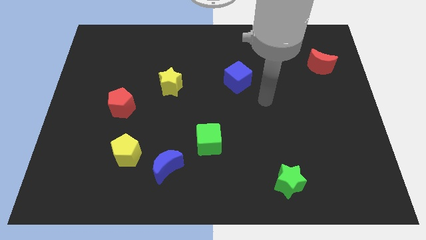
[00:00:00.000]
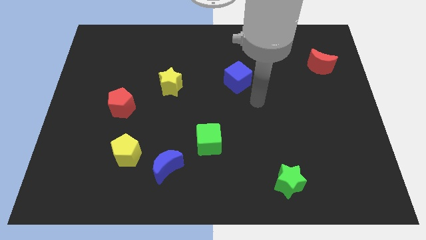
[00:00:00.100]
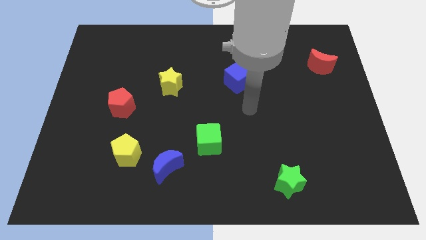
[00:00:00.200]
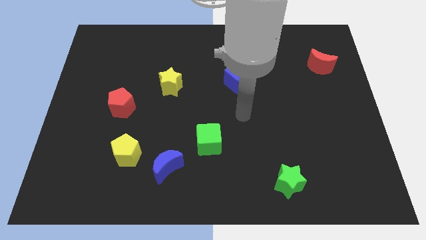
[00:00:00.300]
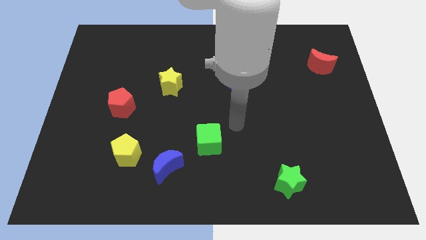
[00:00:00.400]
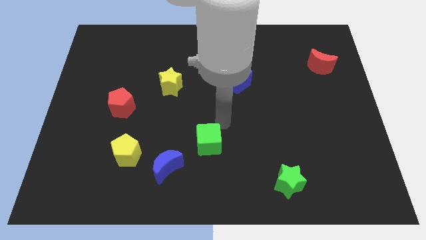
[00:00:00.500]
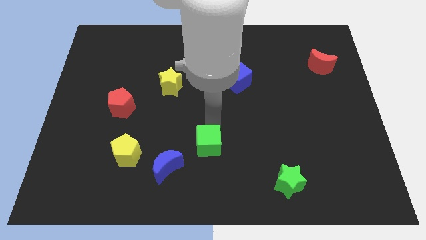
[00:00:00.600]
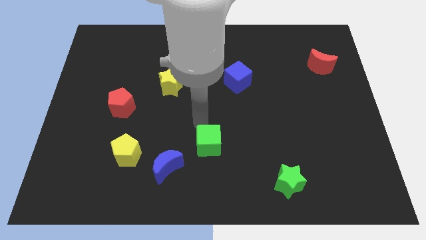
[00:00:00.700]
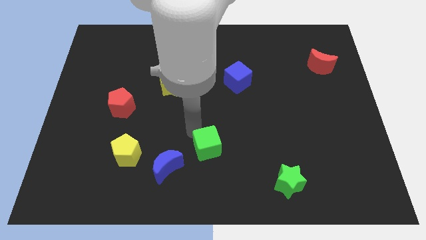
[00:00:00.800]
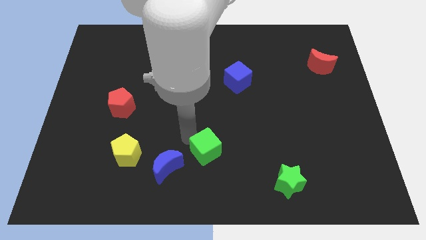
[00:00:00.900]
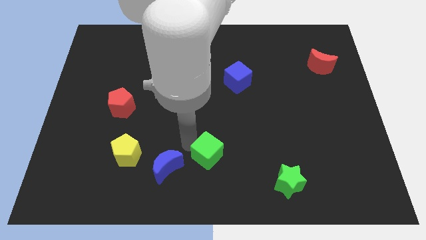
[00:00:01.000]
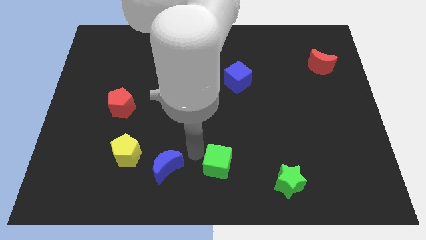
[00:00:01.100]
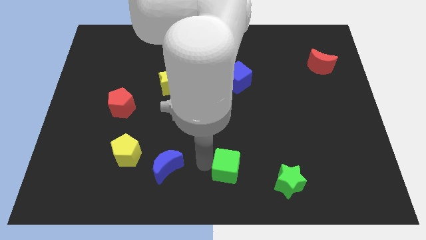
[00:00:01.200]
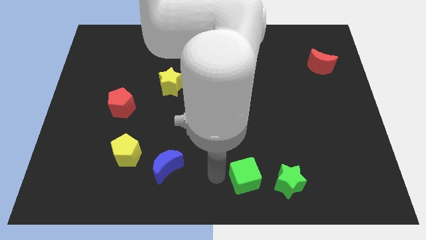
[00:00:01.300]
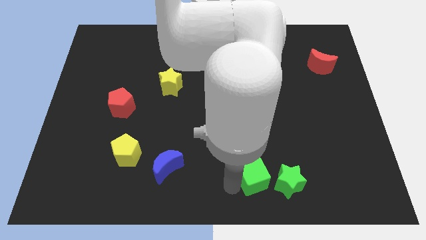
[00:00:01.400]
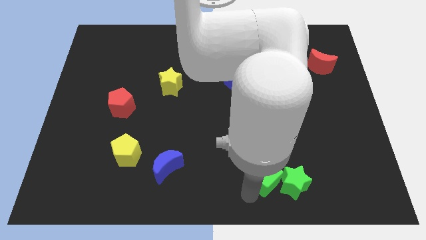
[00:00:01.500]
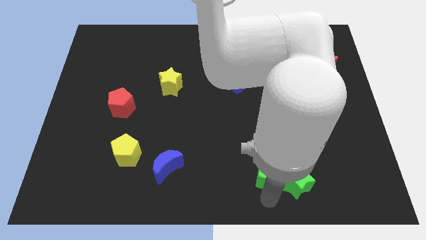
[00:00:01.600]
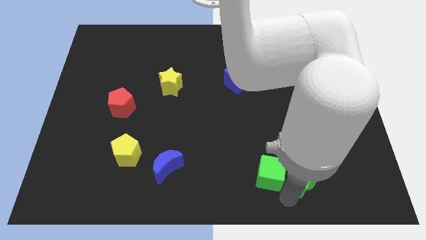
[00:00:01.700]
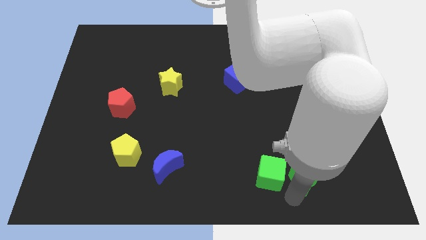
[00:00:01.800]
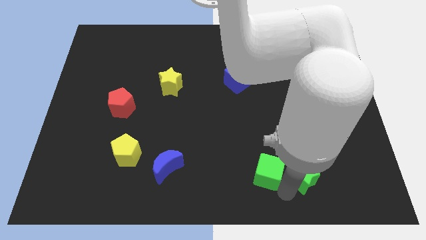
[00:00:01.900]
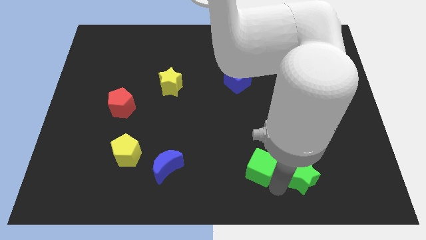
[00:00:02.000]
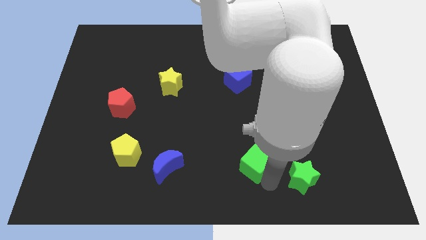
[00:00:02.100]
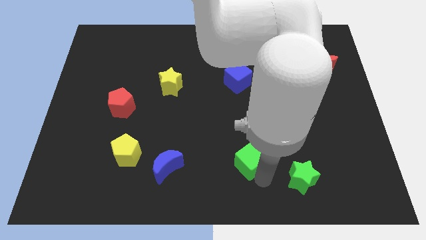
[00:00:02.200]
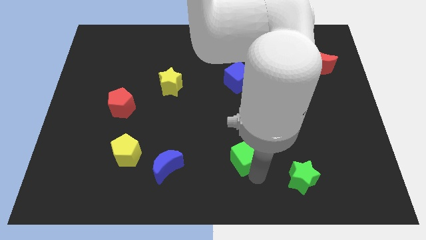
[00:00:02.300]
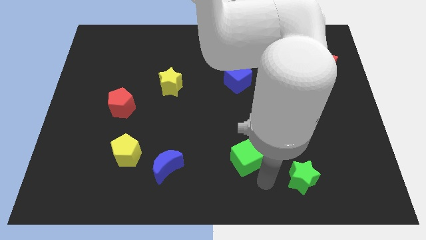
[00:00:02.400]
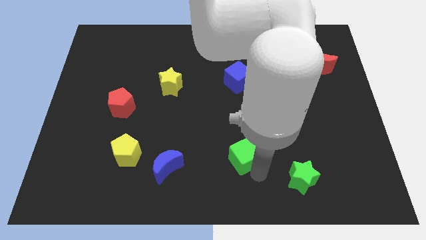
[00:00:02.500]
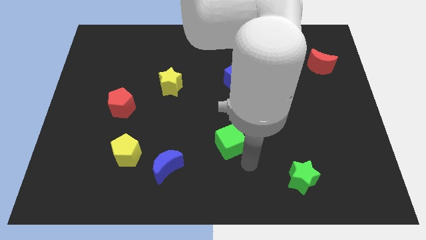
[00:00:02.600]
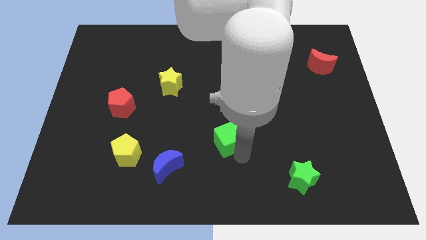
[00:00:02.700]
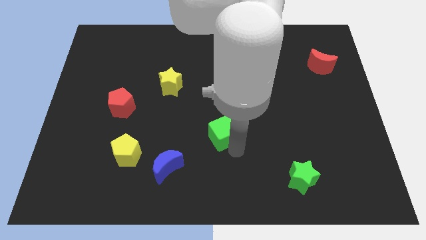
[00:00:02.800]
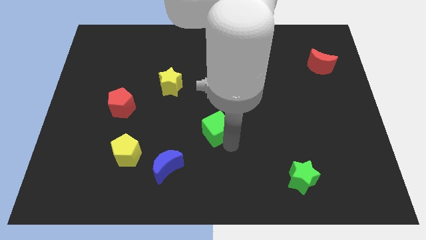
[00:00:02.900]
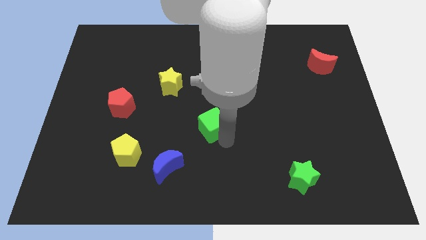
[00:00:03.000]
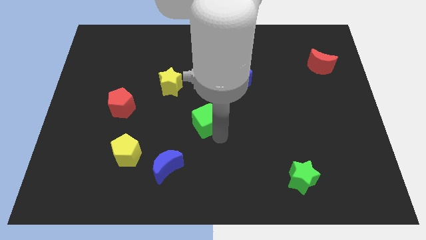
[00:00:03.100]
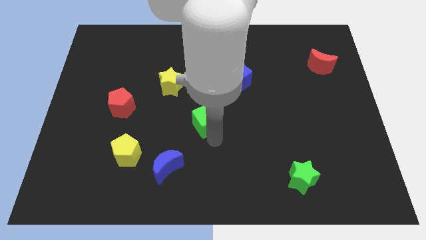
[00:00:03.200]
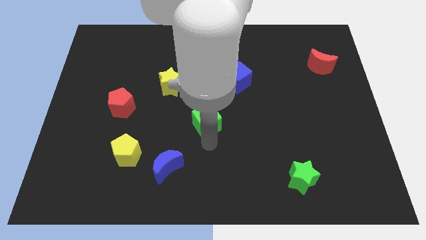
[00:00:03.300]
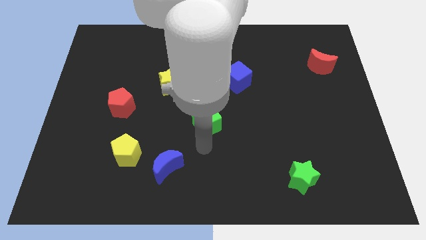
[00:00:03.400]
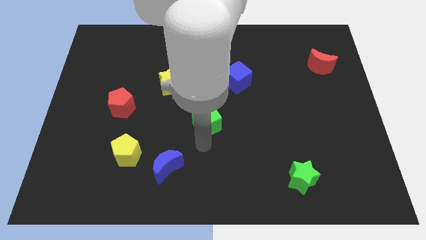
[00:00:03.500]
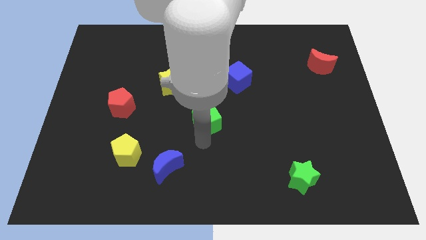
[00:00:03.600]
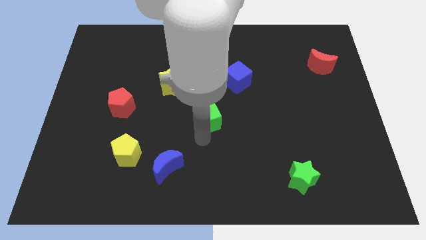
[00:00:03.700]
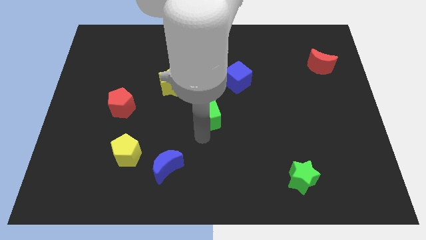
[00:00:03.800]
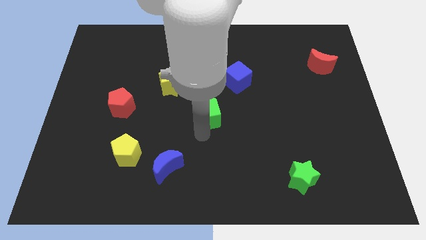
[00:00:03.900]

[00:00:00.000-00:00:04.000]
slightly push the green cube up

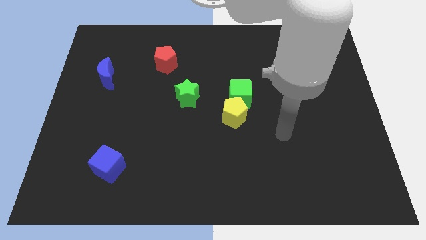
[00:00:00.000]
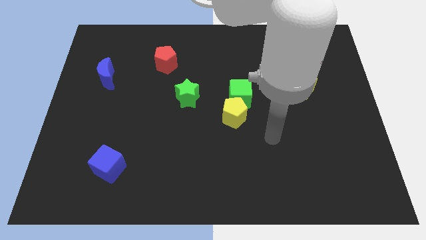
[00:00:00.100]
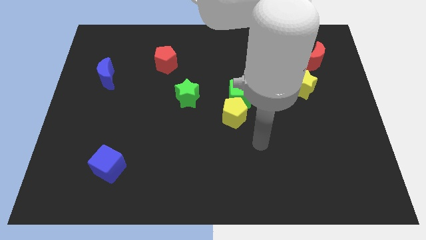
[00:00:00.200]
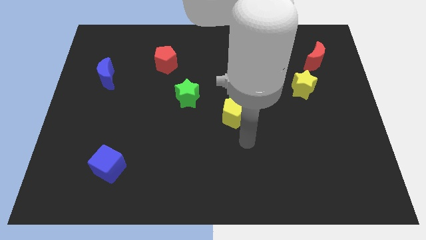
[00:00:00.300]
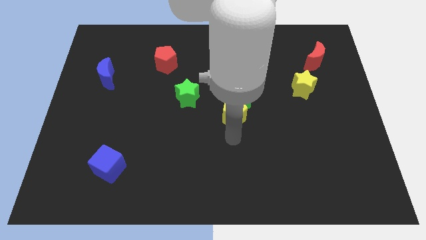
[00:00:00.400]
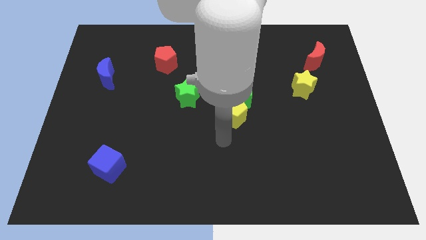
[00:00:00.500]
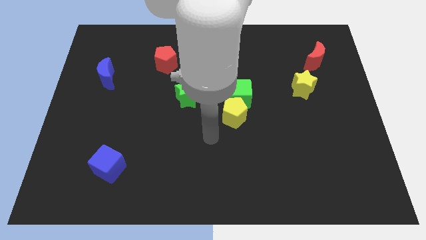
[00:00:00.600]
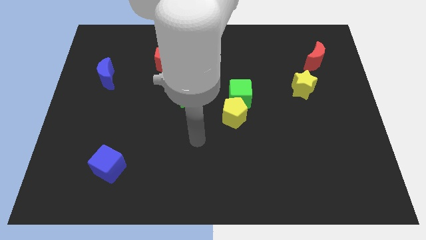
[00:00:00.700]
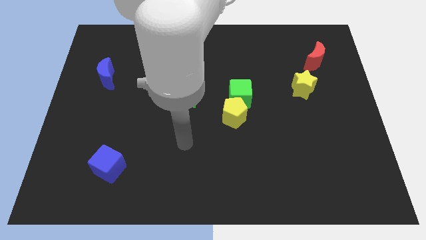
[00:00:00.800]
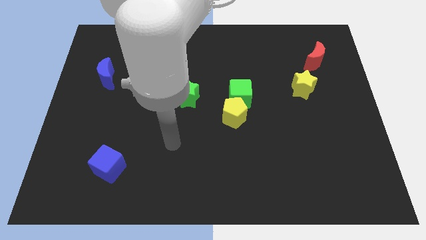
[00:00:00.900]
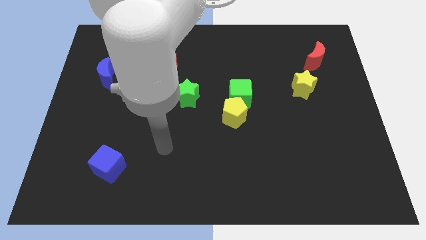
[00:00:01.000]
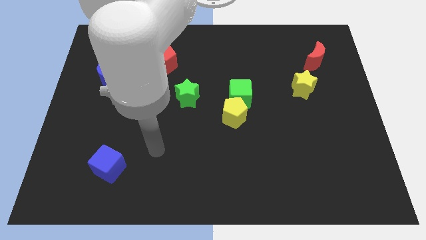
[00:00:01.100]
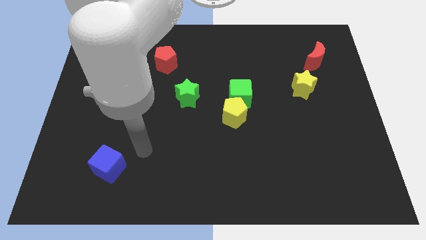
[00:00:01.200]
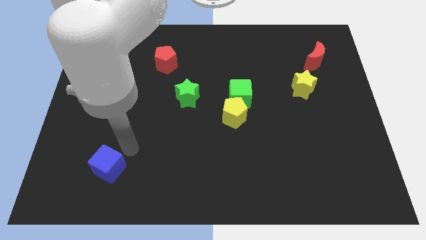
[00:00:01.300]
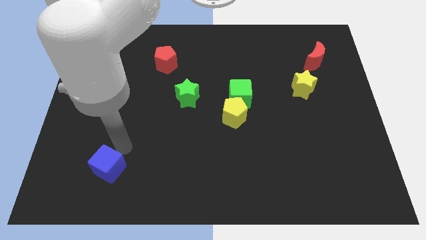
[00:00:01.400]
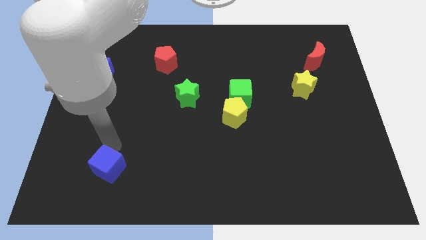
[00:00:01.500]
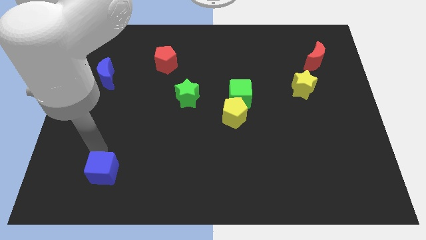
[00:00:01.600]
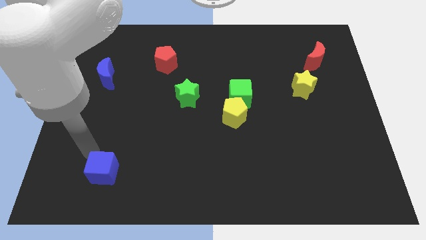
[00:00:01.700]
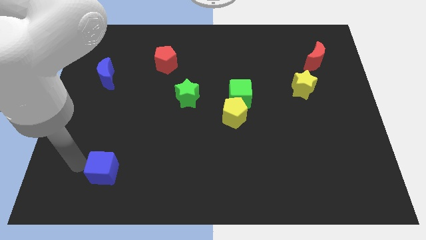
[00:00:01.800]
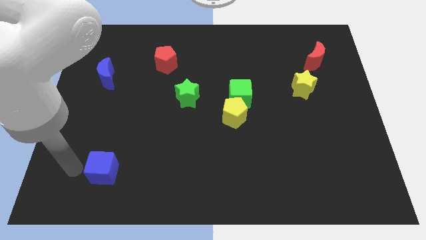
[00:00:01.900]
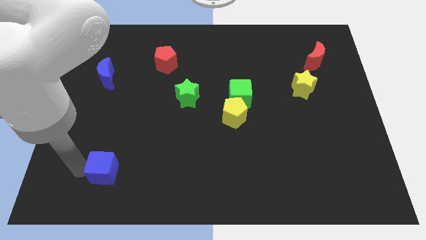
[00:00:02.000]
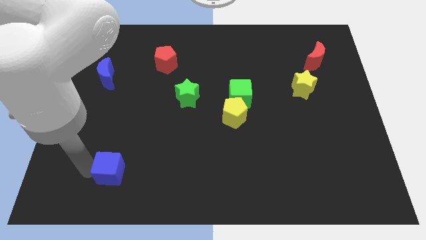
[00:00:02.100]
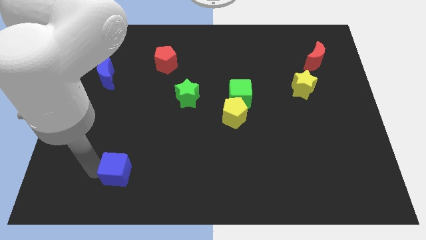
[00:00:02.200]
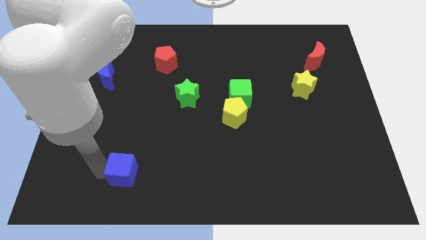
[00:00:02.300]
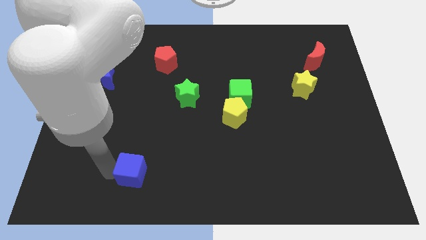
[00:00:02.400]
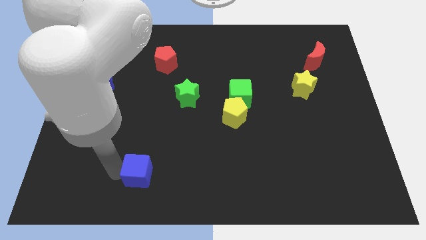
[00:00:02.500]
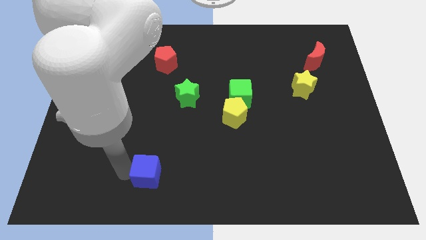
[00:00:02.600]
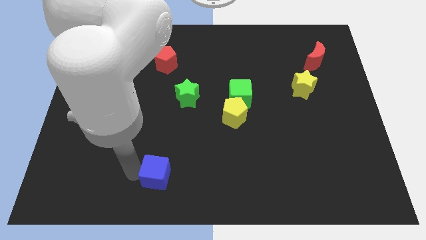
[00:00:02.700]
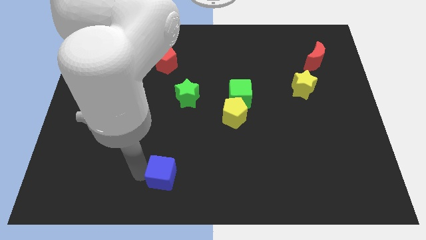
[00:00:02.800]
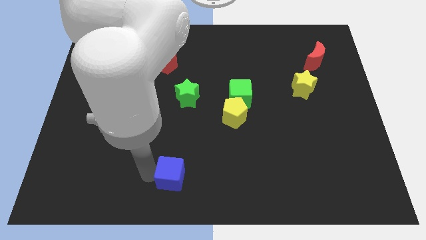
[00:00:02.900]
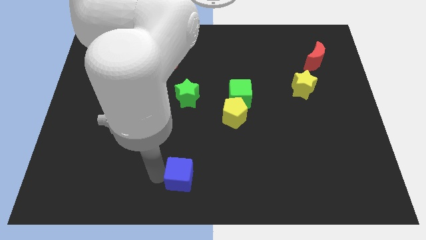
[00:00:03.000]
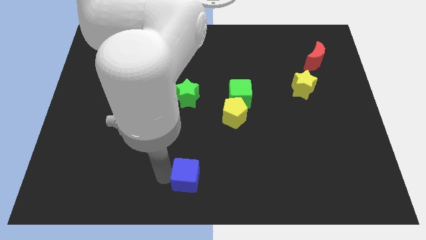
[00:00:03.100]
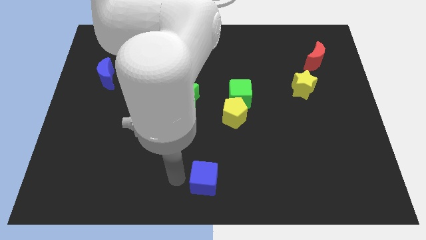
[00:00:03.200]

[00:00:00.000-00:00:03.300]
move the blue cube to the right

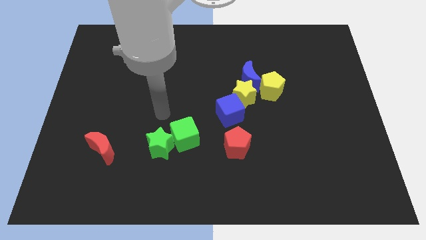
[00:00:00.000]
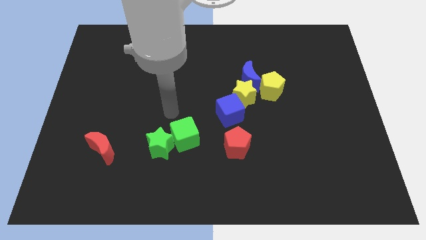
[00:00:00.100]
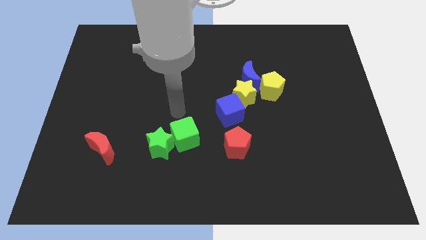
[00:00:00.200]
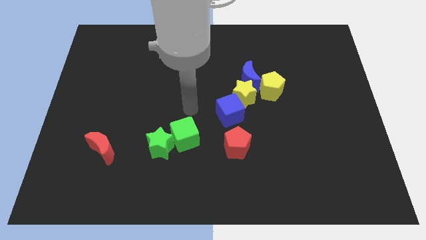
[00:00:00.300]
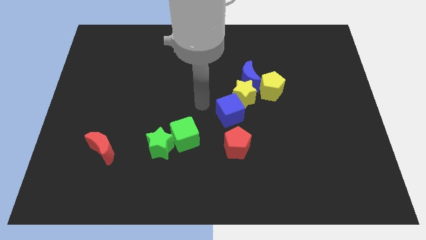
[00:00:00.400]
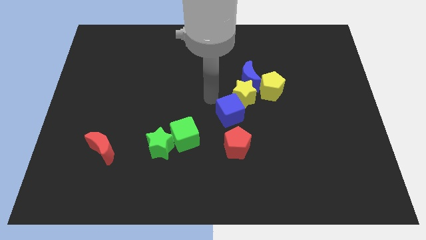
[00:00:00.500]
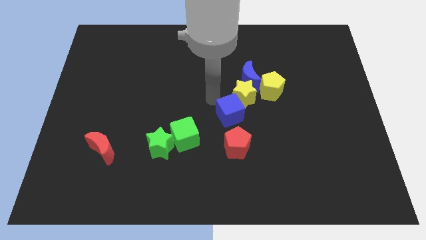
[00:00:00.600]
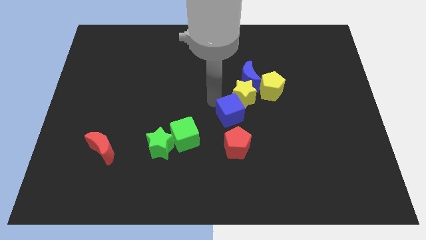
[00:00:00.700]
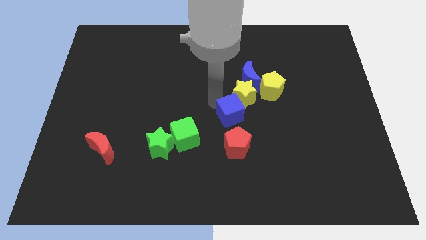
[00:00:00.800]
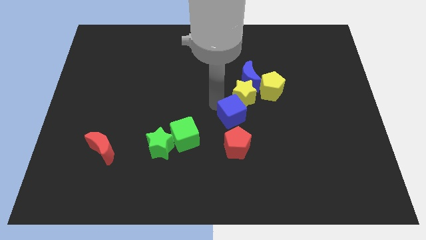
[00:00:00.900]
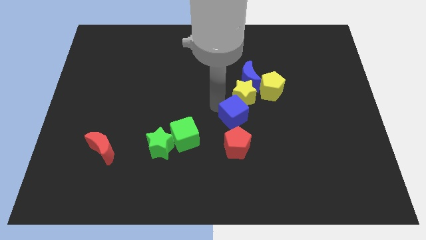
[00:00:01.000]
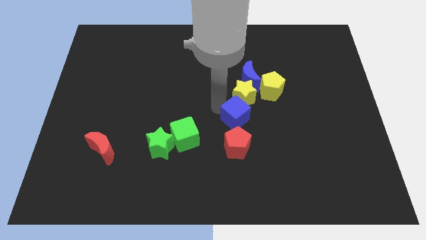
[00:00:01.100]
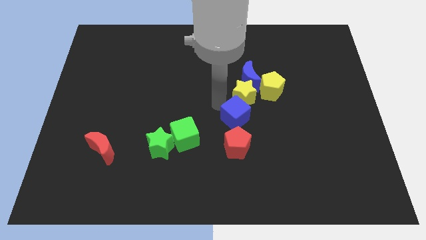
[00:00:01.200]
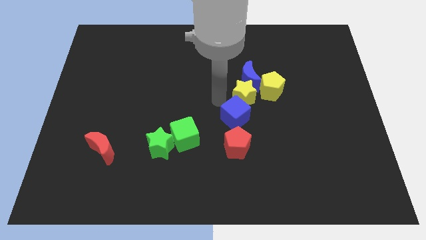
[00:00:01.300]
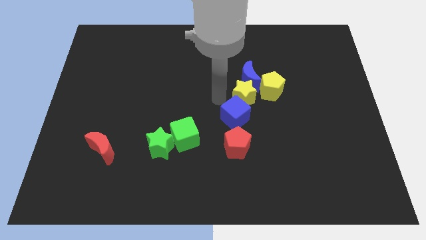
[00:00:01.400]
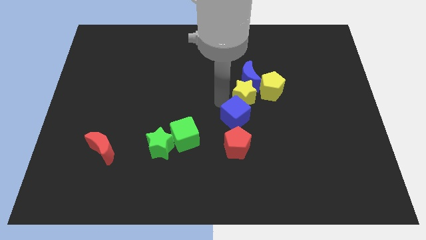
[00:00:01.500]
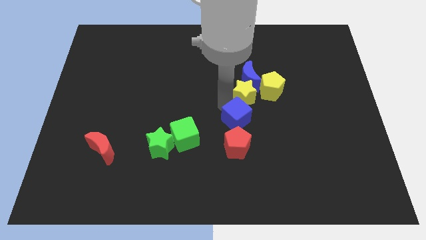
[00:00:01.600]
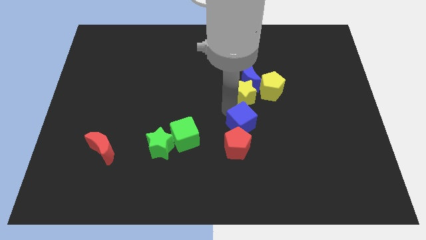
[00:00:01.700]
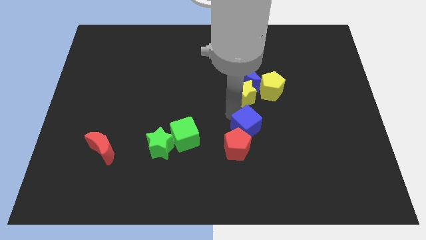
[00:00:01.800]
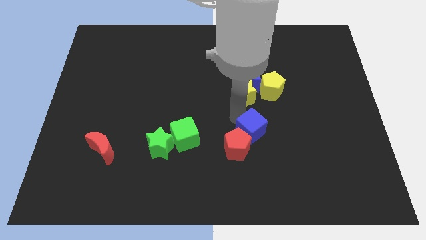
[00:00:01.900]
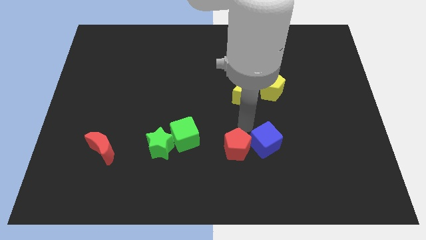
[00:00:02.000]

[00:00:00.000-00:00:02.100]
slide the blue cube diagonally down and right a bit
